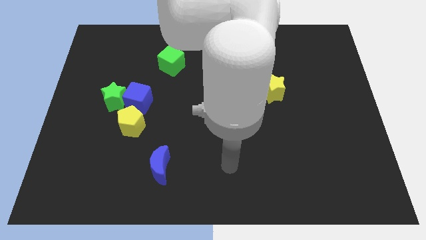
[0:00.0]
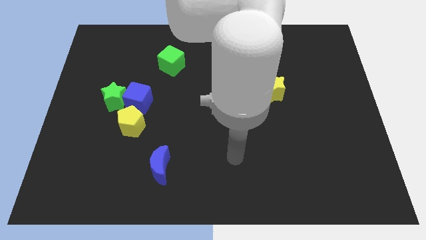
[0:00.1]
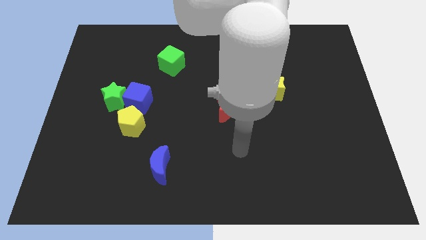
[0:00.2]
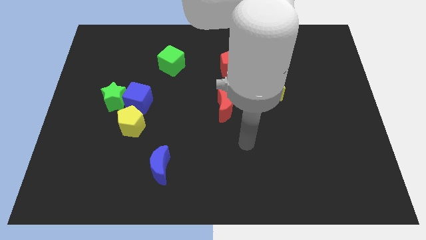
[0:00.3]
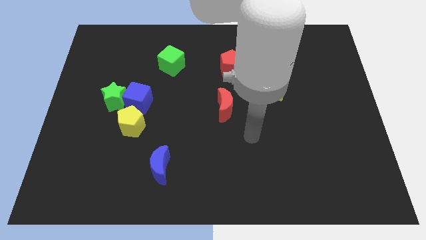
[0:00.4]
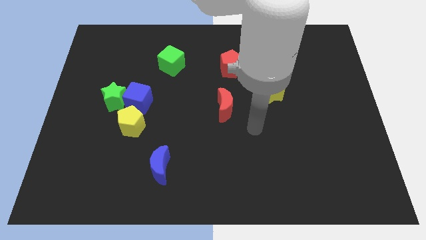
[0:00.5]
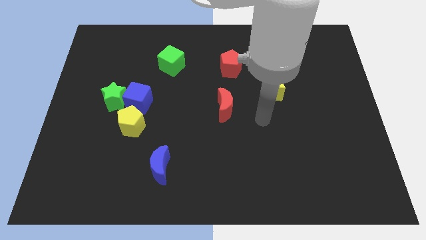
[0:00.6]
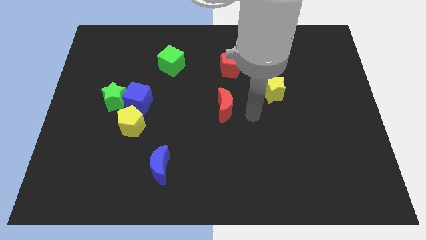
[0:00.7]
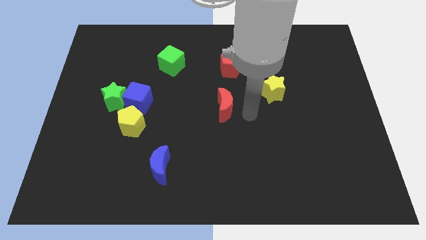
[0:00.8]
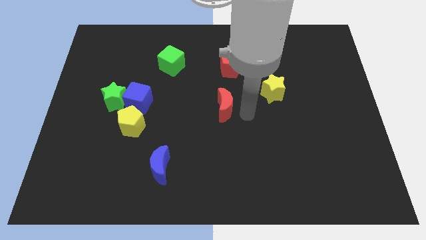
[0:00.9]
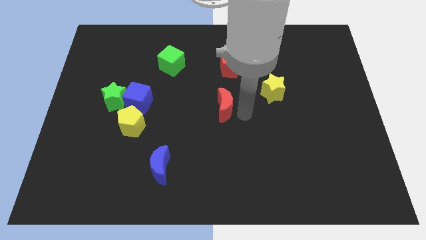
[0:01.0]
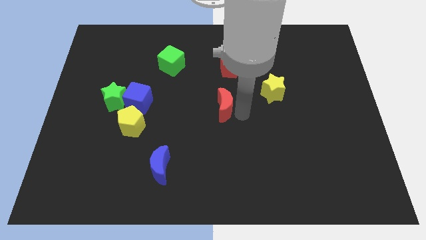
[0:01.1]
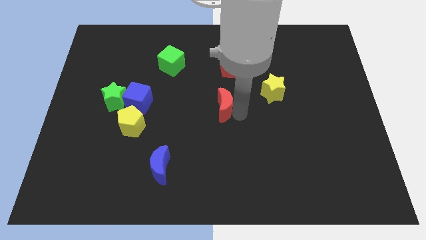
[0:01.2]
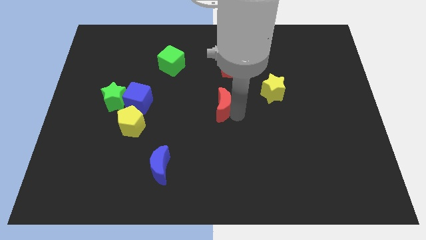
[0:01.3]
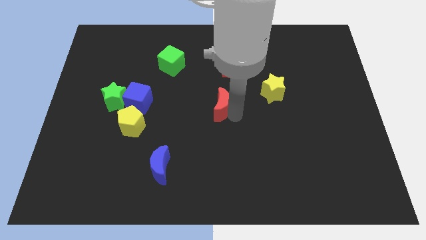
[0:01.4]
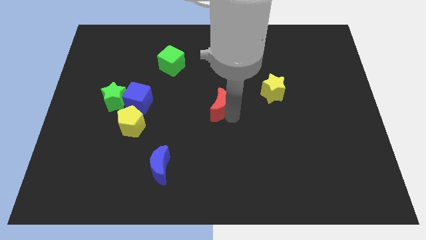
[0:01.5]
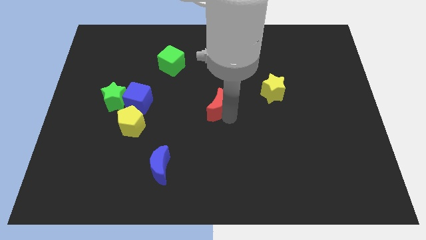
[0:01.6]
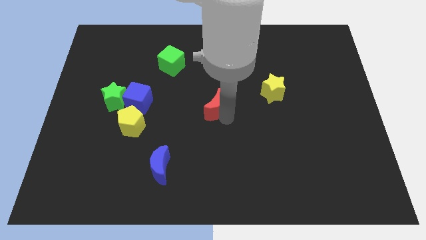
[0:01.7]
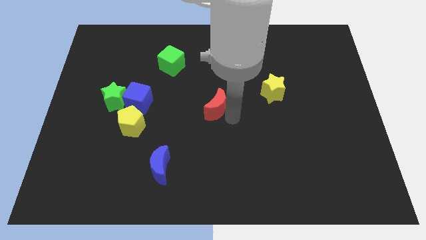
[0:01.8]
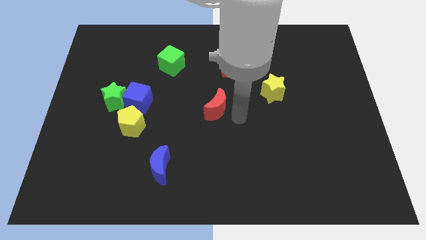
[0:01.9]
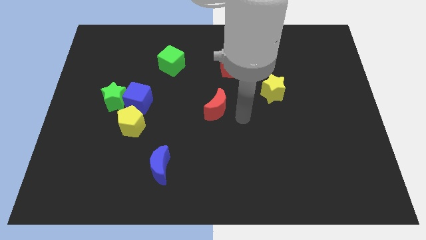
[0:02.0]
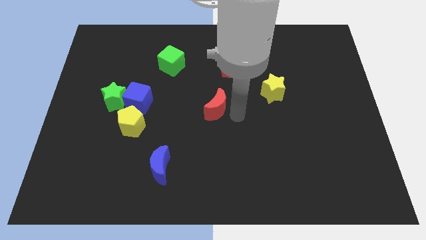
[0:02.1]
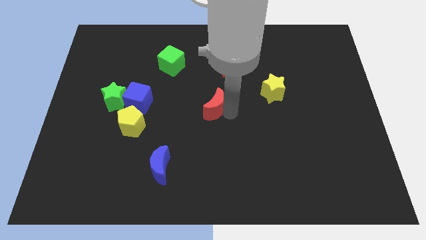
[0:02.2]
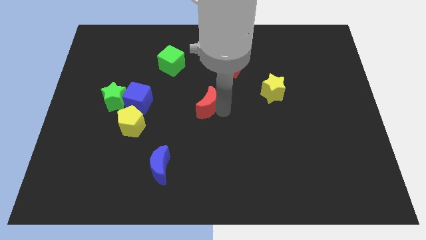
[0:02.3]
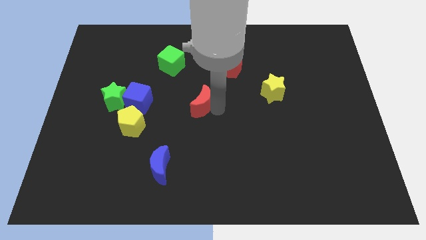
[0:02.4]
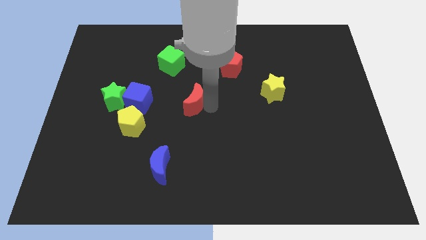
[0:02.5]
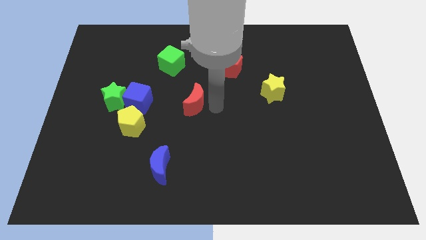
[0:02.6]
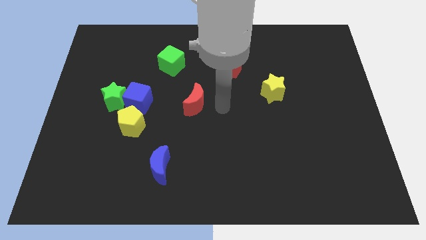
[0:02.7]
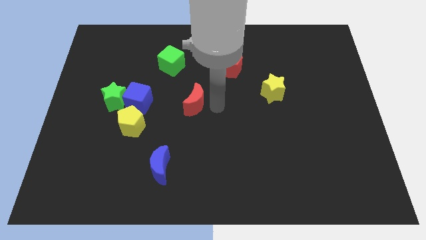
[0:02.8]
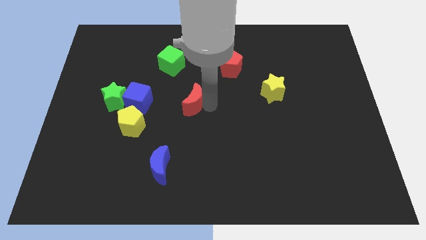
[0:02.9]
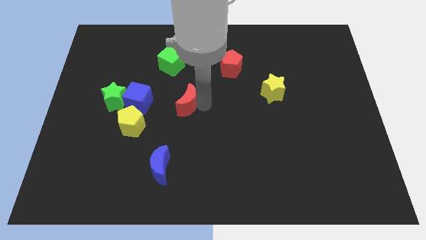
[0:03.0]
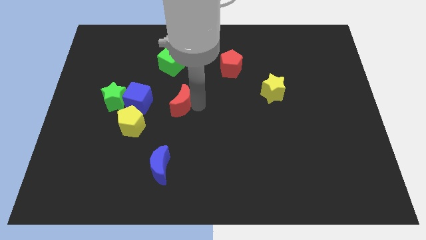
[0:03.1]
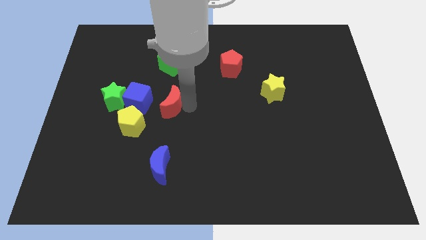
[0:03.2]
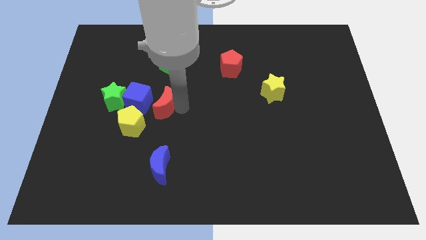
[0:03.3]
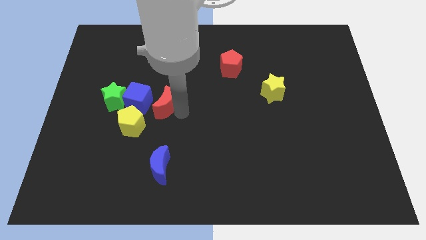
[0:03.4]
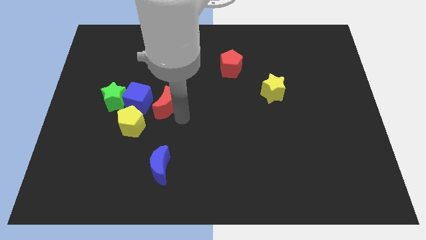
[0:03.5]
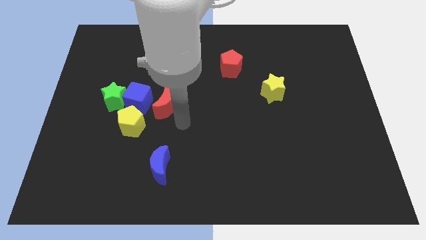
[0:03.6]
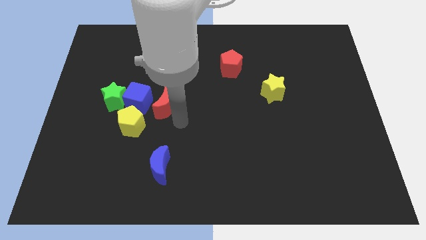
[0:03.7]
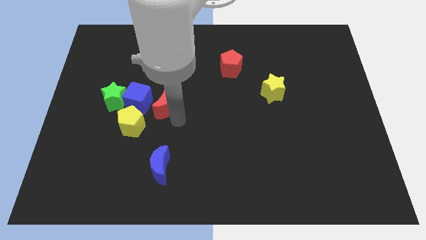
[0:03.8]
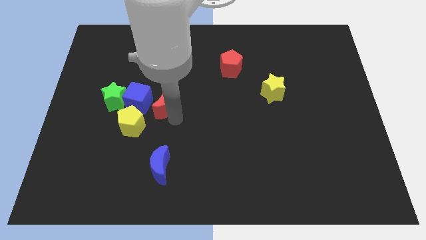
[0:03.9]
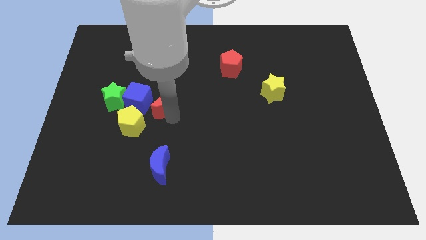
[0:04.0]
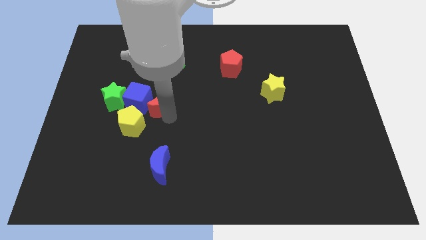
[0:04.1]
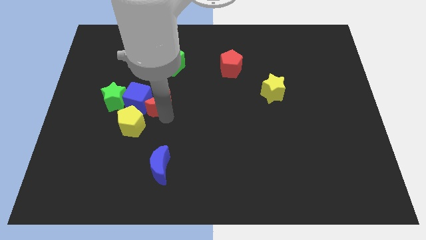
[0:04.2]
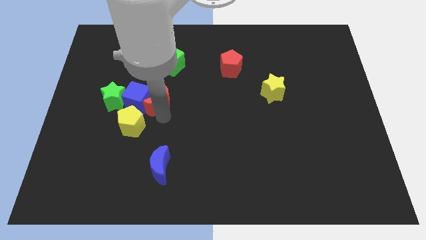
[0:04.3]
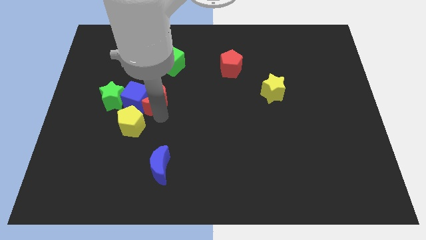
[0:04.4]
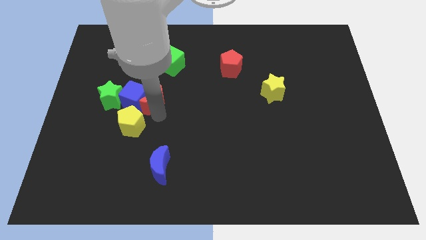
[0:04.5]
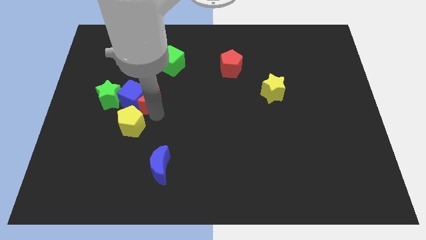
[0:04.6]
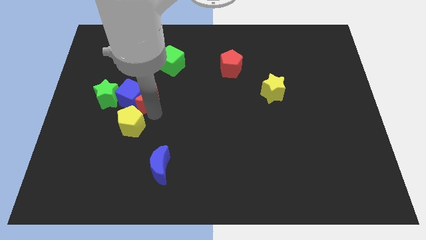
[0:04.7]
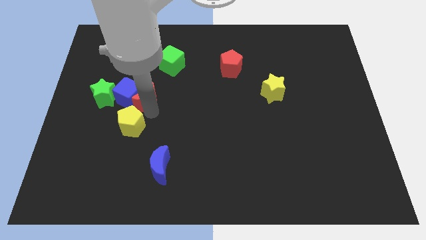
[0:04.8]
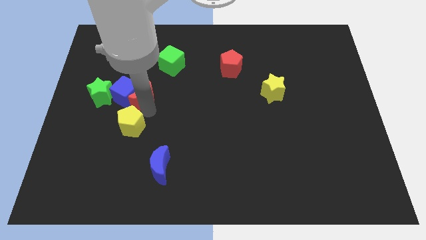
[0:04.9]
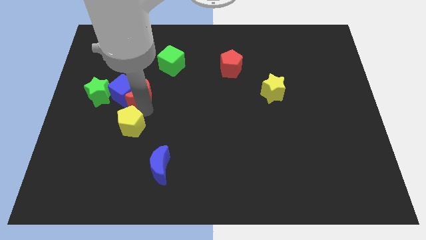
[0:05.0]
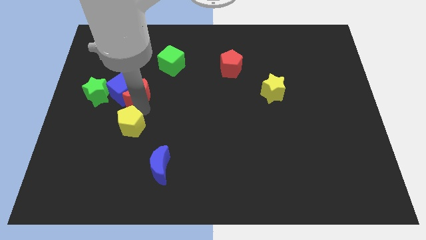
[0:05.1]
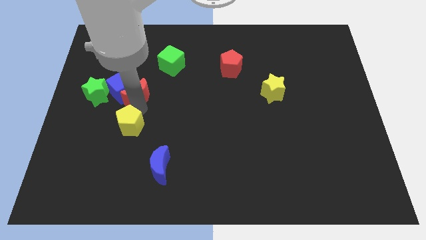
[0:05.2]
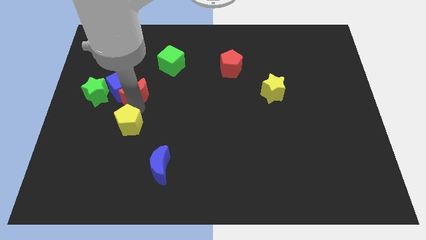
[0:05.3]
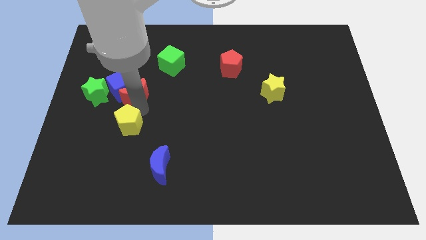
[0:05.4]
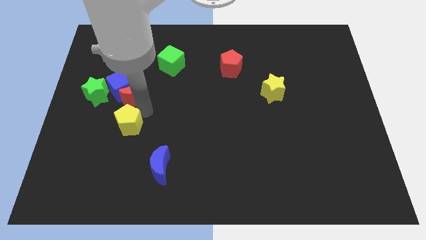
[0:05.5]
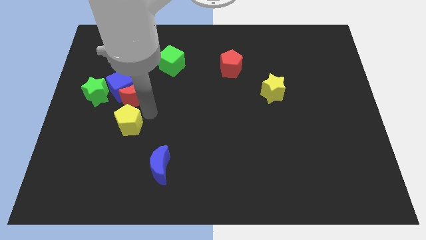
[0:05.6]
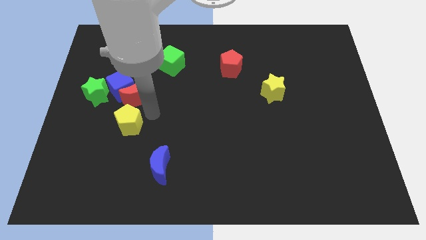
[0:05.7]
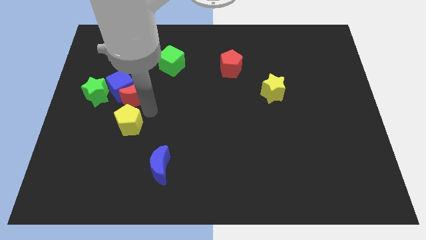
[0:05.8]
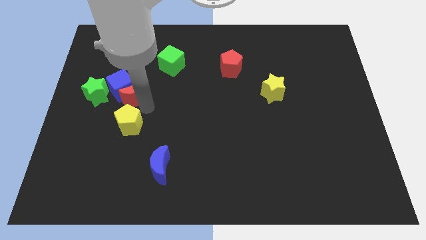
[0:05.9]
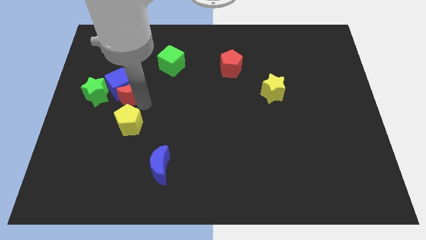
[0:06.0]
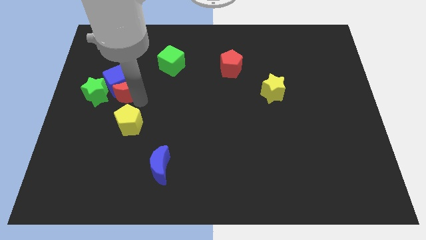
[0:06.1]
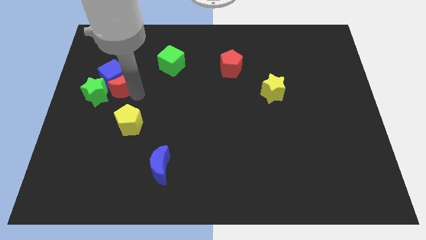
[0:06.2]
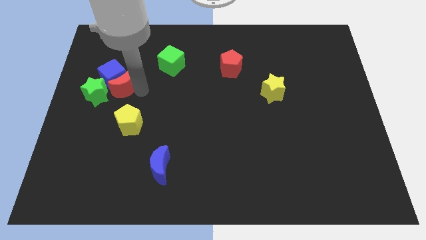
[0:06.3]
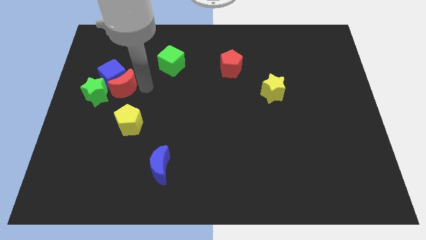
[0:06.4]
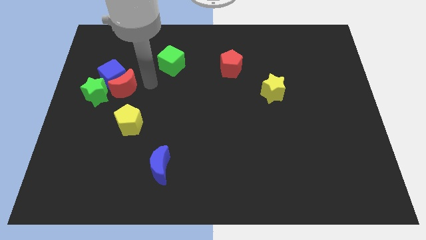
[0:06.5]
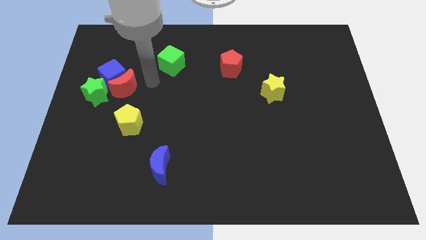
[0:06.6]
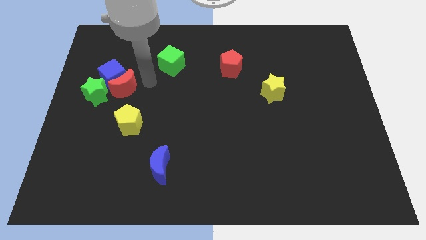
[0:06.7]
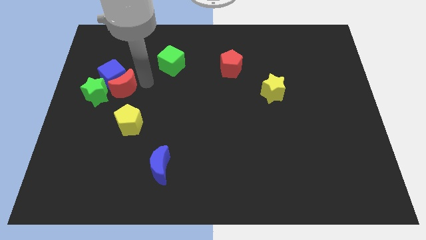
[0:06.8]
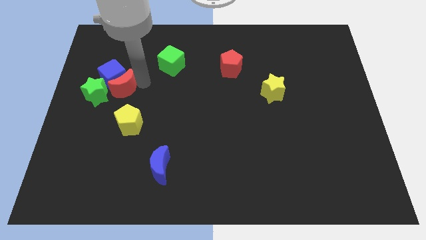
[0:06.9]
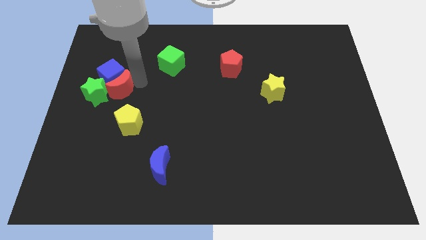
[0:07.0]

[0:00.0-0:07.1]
slide the red moon next to the green star
